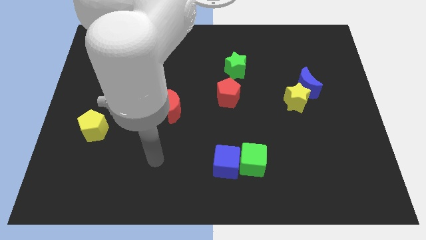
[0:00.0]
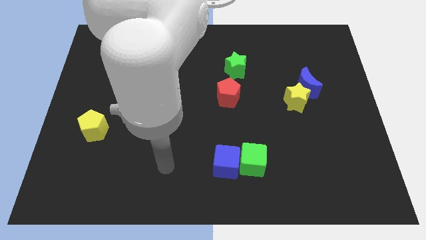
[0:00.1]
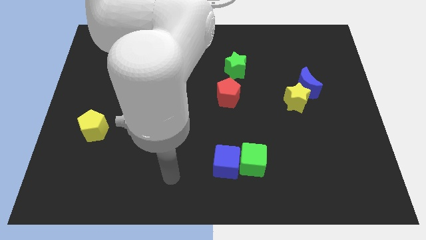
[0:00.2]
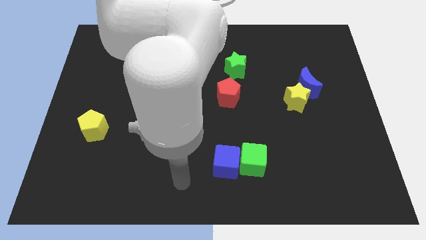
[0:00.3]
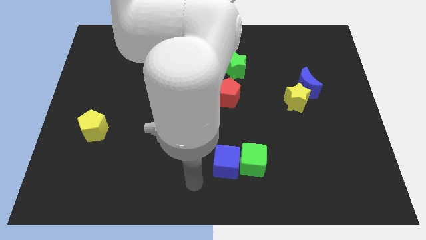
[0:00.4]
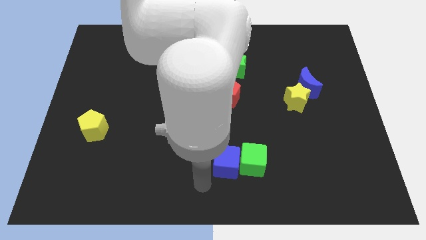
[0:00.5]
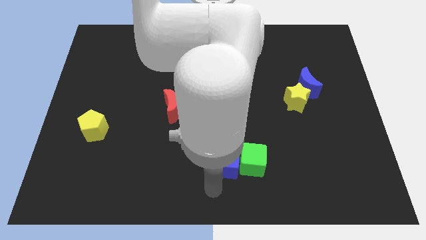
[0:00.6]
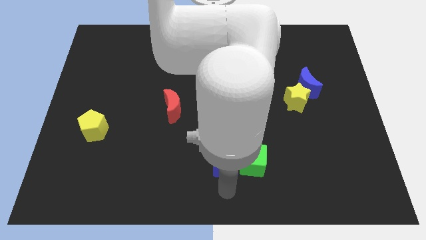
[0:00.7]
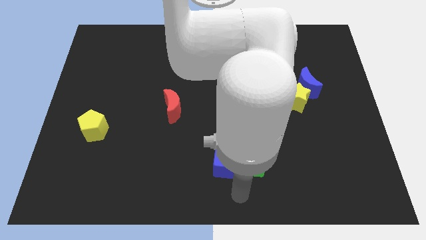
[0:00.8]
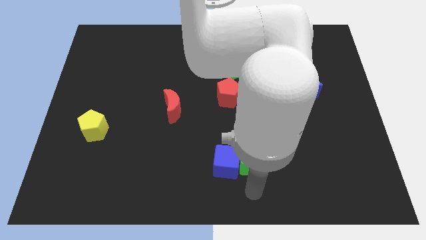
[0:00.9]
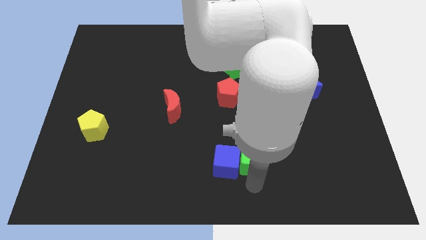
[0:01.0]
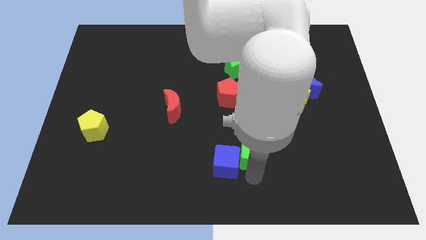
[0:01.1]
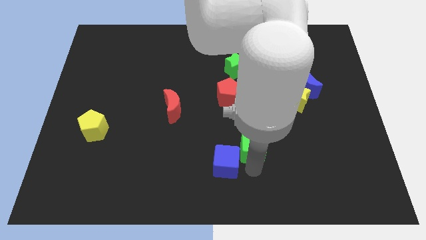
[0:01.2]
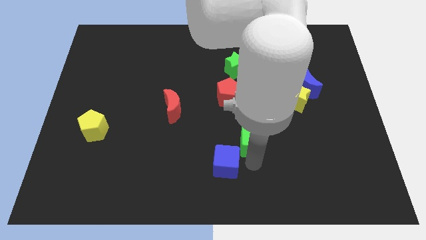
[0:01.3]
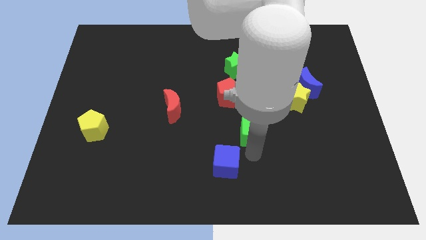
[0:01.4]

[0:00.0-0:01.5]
push the green cube upwards a little bit

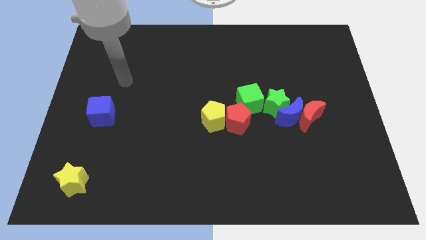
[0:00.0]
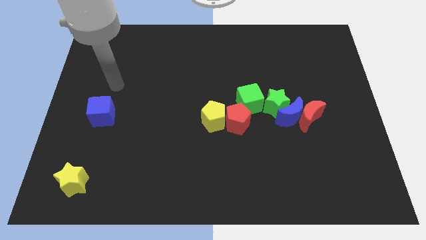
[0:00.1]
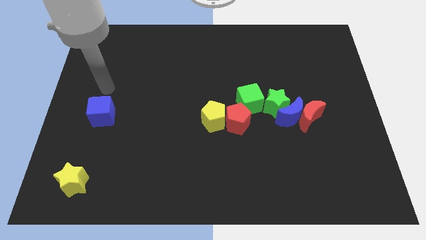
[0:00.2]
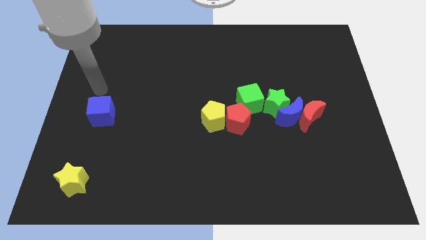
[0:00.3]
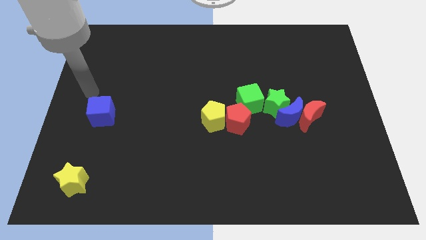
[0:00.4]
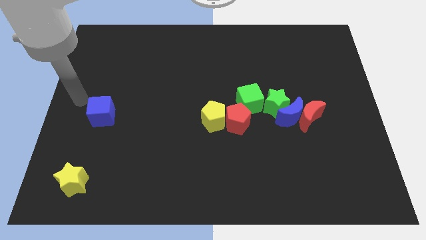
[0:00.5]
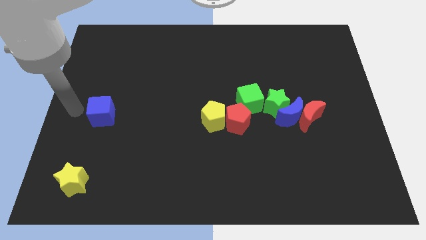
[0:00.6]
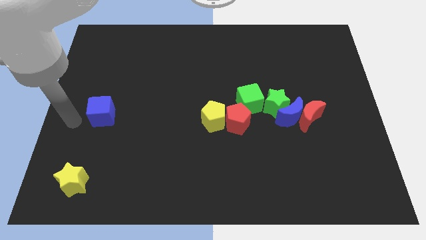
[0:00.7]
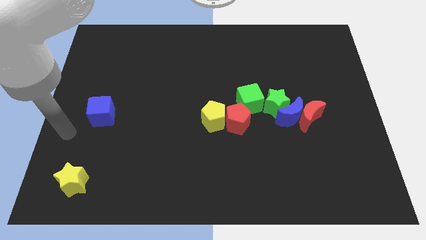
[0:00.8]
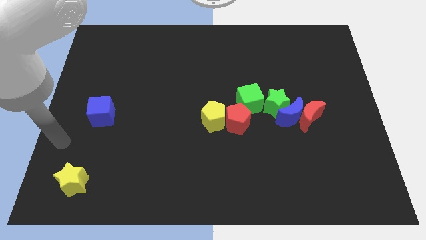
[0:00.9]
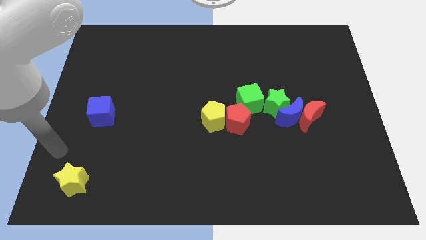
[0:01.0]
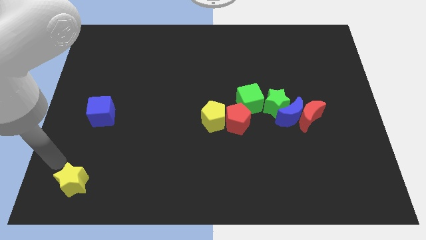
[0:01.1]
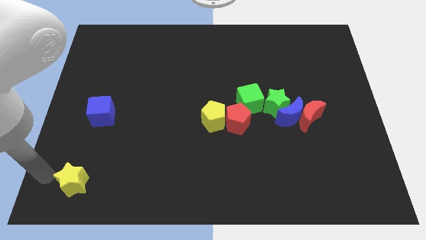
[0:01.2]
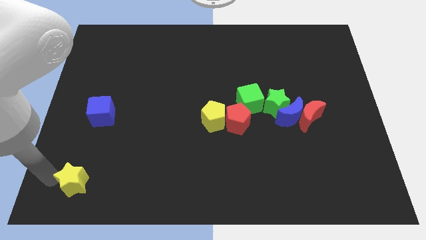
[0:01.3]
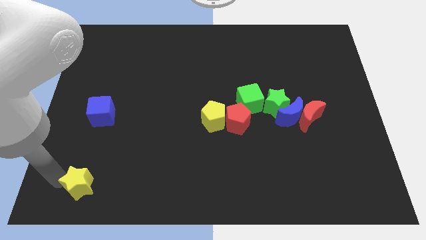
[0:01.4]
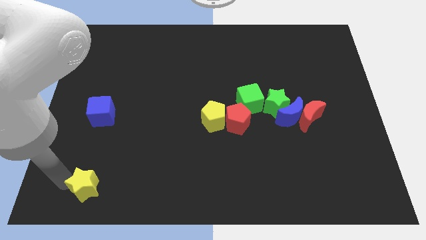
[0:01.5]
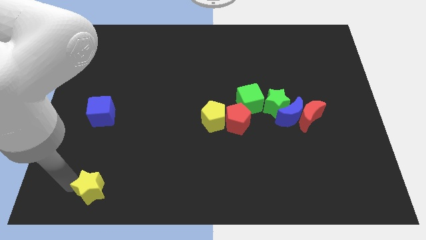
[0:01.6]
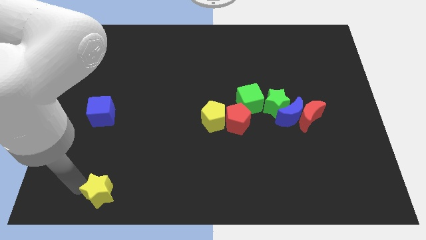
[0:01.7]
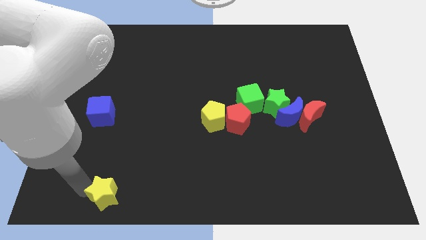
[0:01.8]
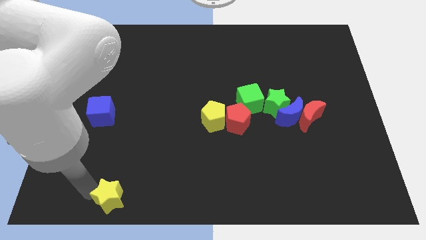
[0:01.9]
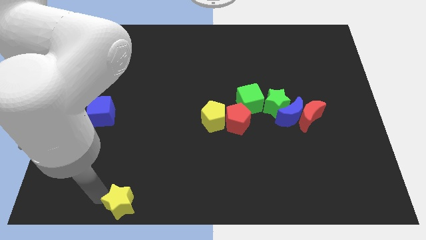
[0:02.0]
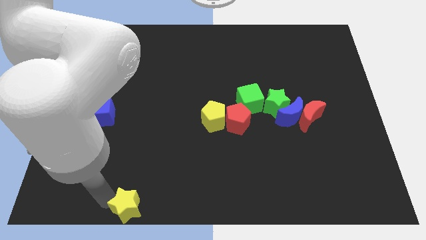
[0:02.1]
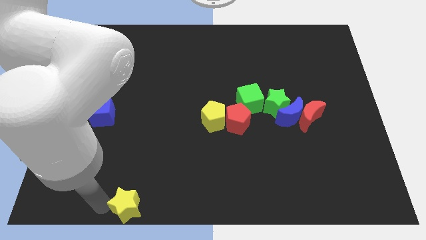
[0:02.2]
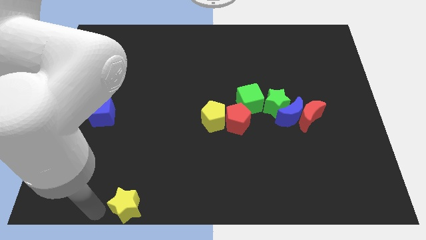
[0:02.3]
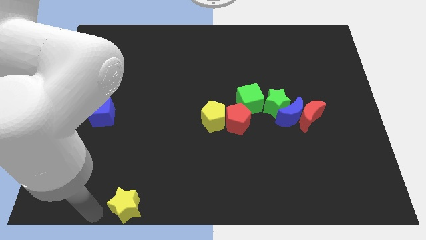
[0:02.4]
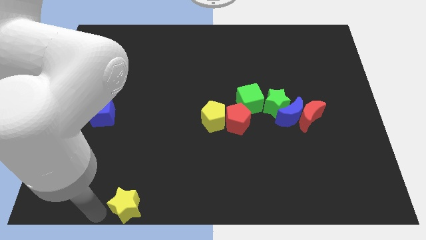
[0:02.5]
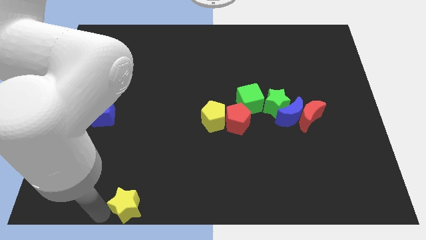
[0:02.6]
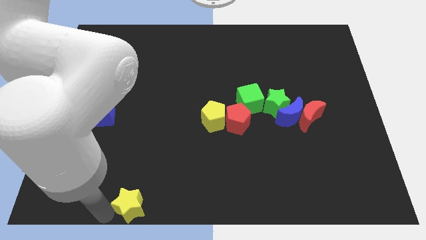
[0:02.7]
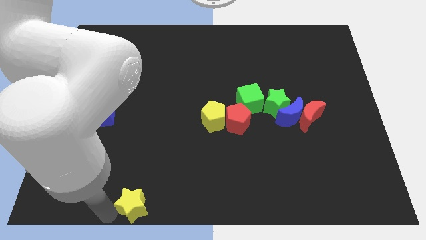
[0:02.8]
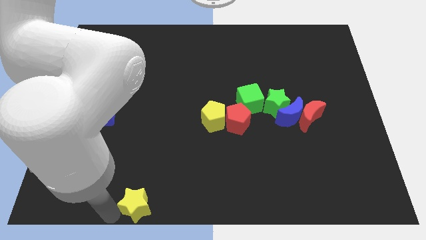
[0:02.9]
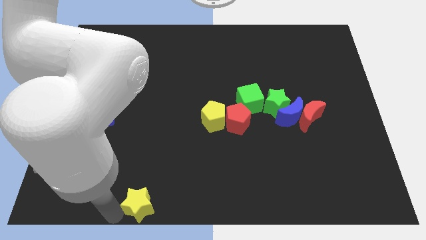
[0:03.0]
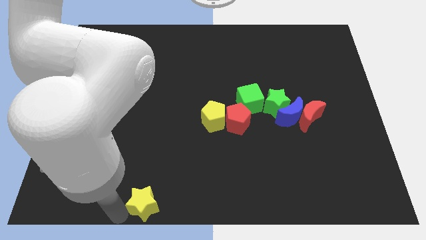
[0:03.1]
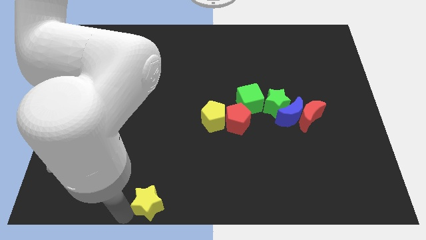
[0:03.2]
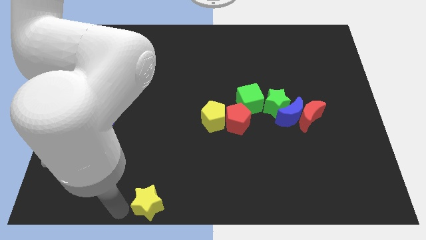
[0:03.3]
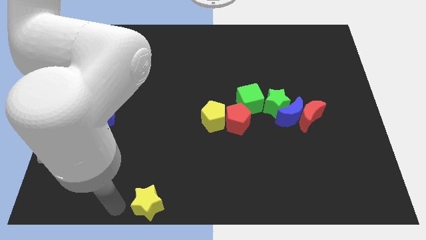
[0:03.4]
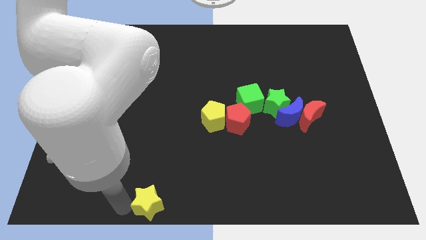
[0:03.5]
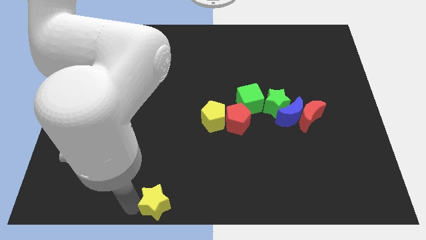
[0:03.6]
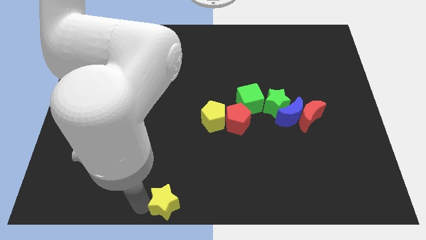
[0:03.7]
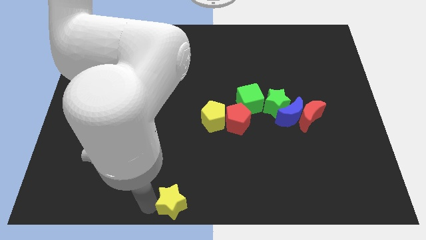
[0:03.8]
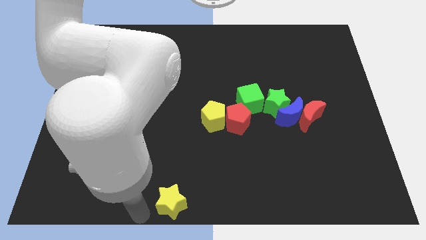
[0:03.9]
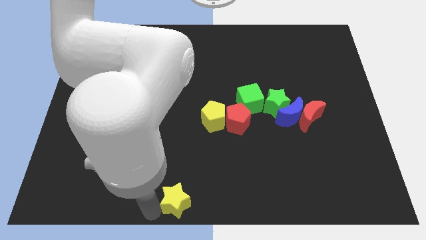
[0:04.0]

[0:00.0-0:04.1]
push the yellow star right

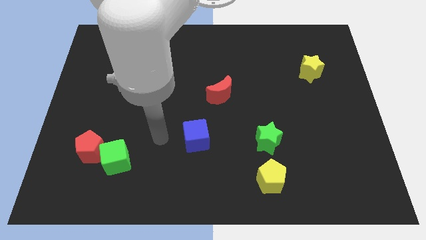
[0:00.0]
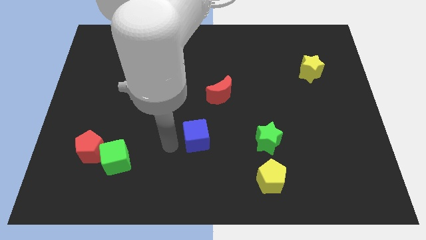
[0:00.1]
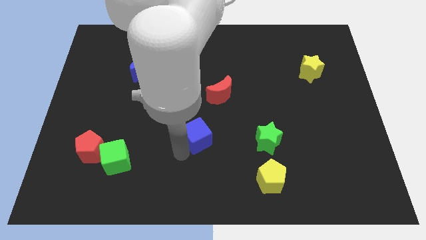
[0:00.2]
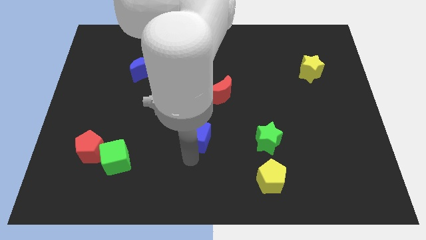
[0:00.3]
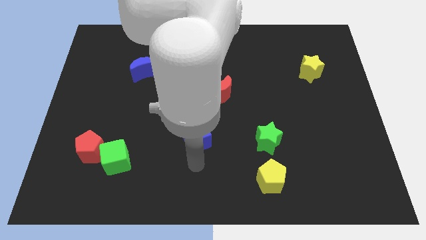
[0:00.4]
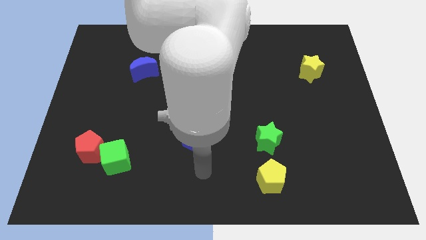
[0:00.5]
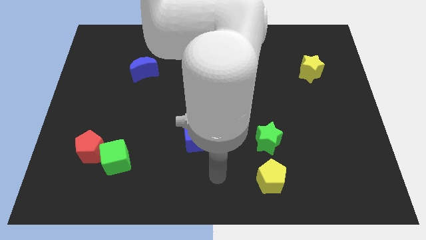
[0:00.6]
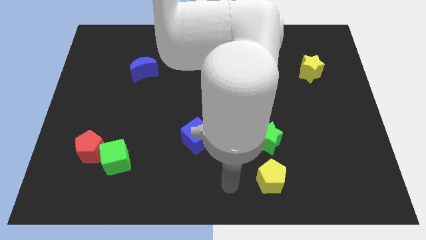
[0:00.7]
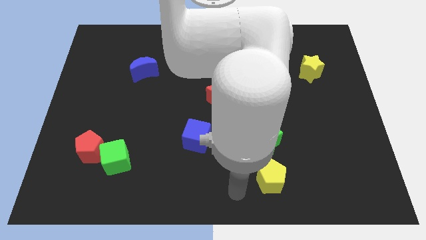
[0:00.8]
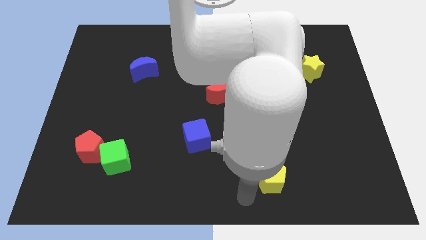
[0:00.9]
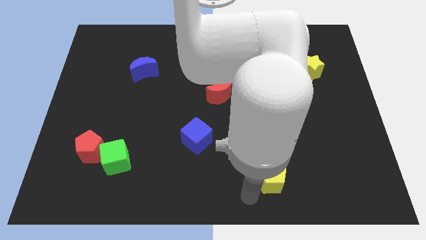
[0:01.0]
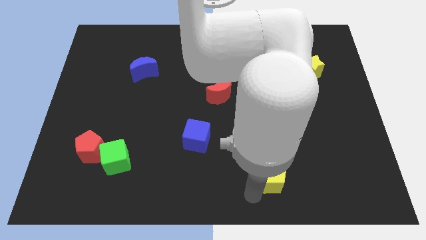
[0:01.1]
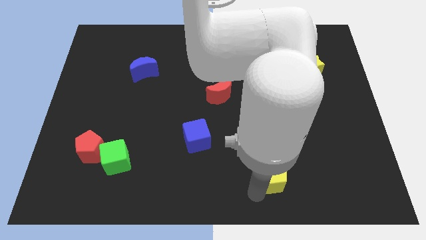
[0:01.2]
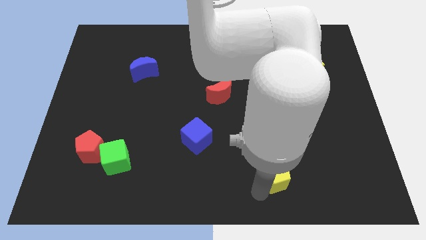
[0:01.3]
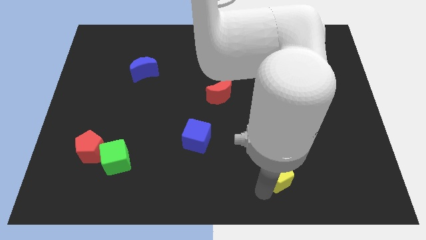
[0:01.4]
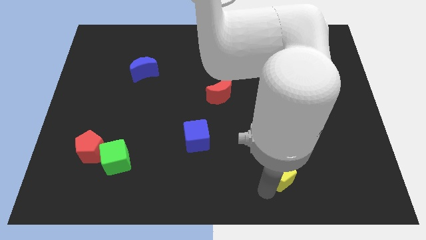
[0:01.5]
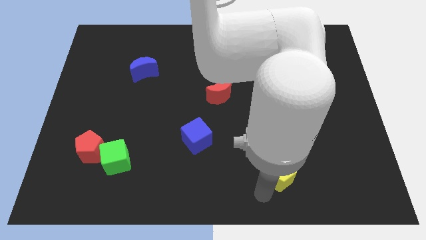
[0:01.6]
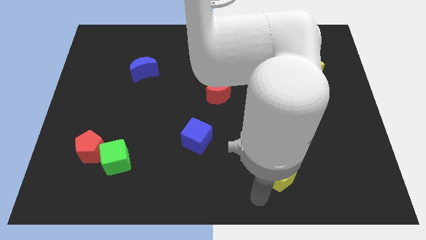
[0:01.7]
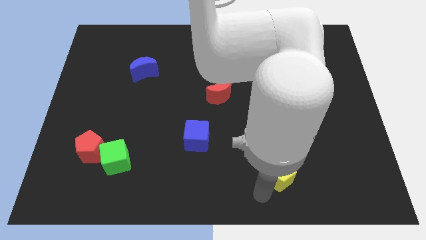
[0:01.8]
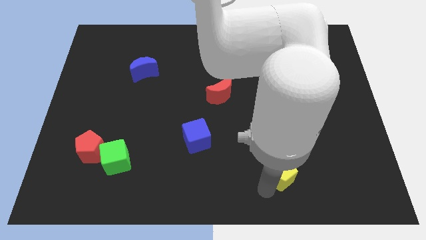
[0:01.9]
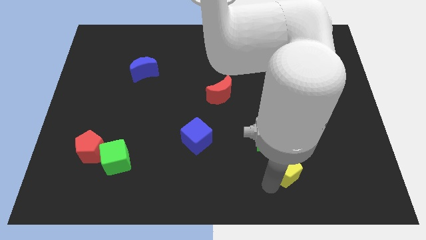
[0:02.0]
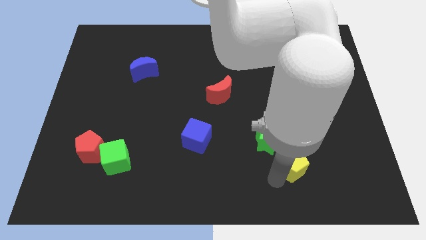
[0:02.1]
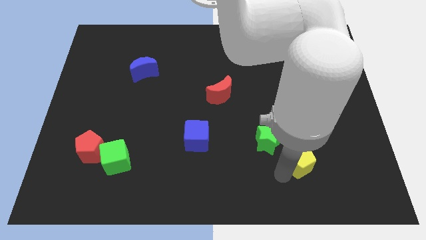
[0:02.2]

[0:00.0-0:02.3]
move the yellow pentagon a bit up and to the right diagonally

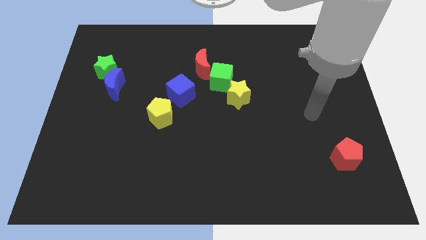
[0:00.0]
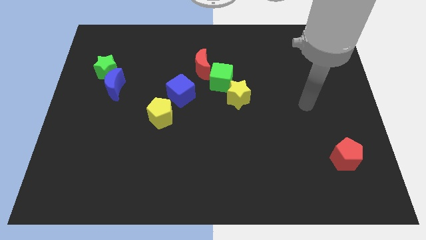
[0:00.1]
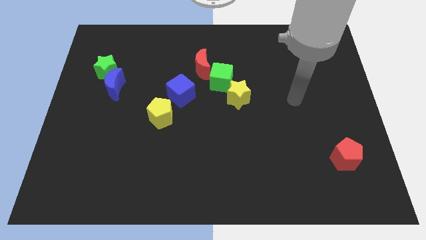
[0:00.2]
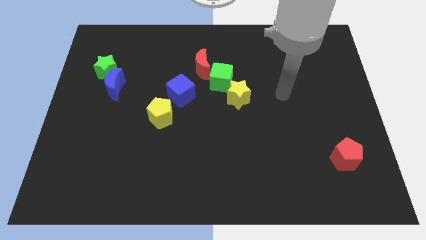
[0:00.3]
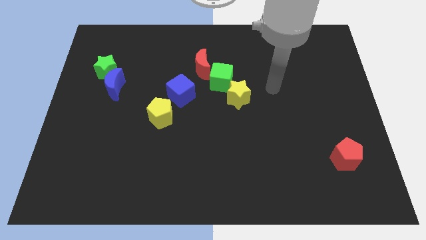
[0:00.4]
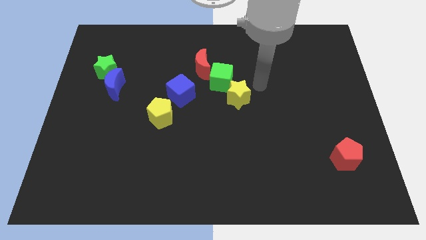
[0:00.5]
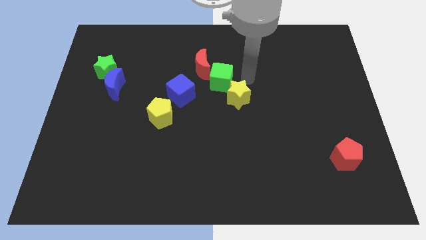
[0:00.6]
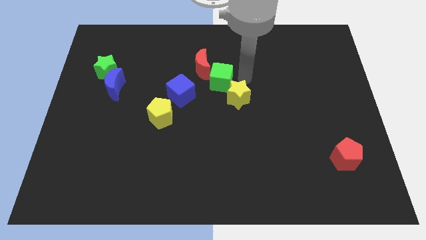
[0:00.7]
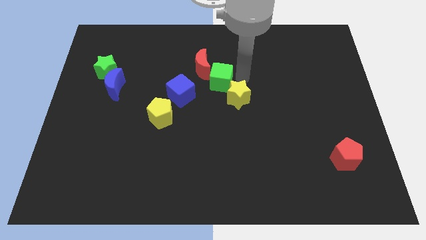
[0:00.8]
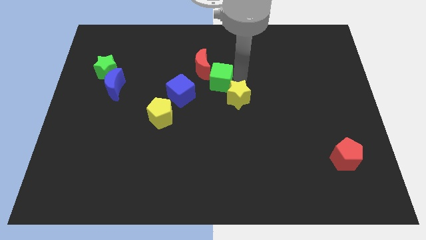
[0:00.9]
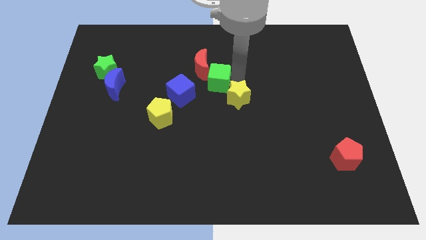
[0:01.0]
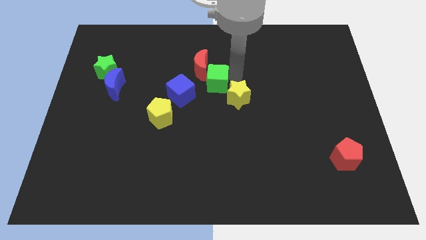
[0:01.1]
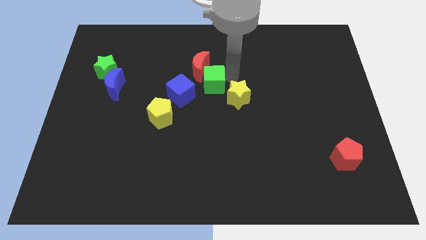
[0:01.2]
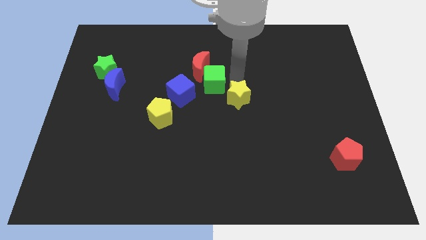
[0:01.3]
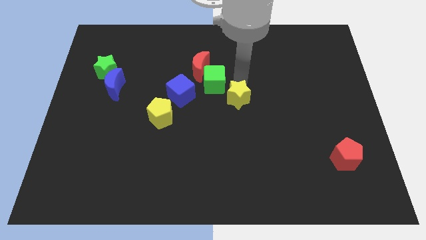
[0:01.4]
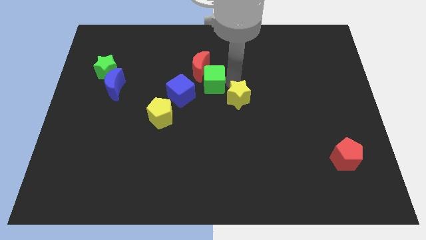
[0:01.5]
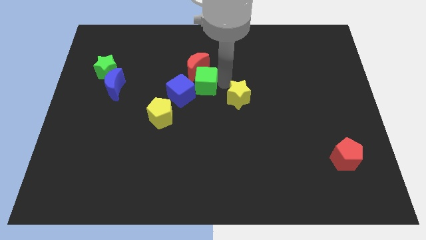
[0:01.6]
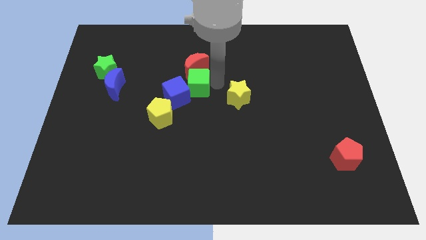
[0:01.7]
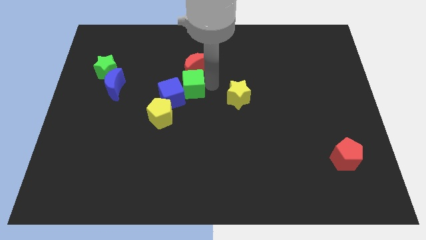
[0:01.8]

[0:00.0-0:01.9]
move the green cube left a little
